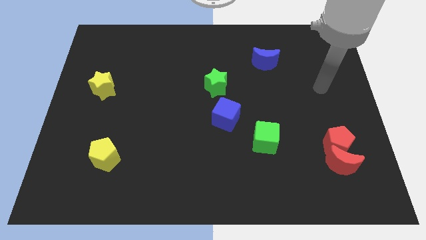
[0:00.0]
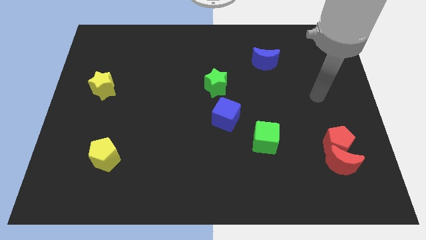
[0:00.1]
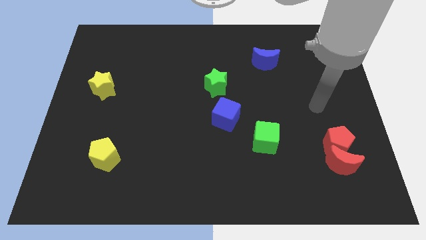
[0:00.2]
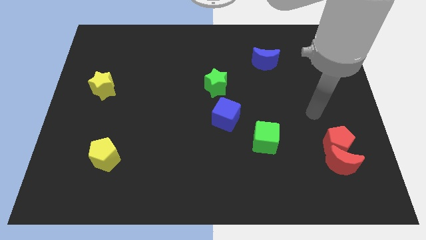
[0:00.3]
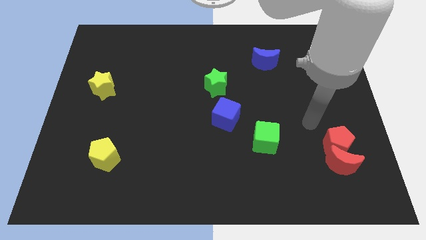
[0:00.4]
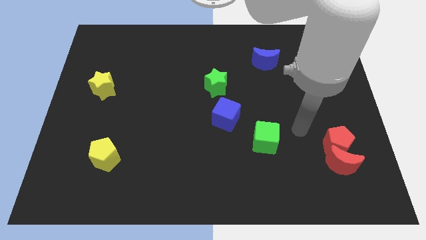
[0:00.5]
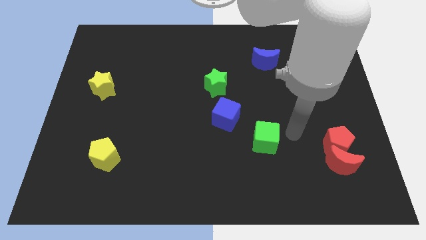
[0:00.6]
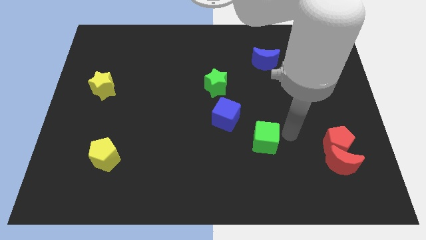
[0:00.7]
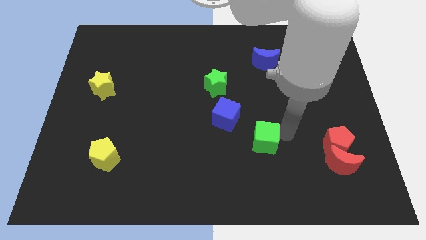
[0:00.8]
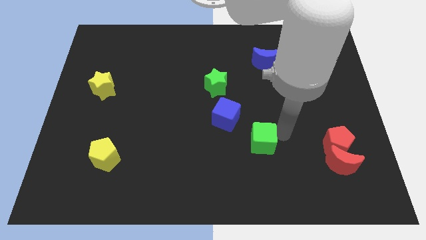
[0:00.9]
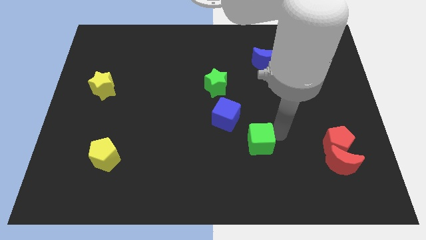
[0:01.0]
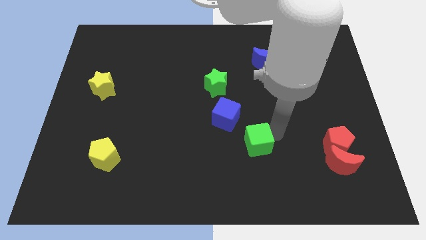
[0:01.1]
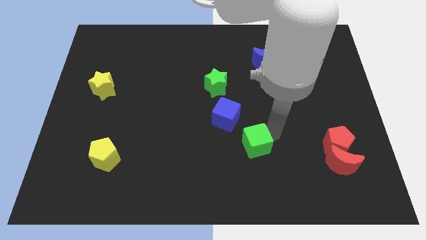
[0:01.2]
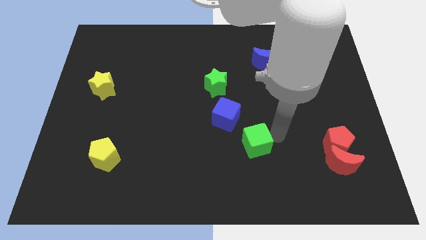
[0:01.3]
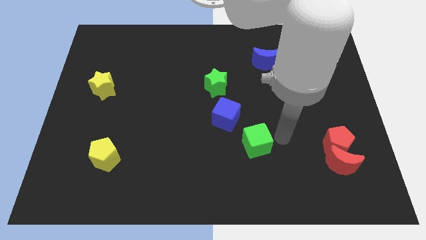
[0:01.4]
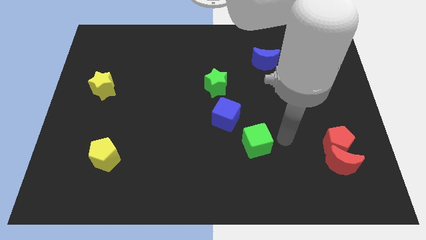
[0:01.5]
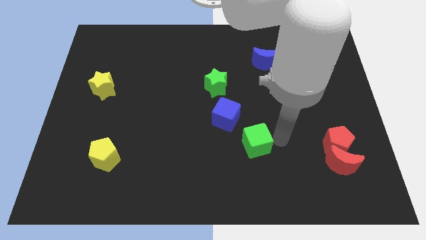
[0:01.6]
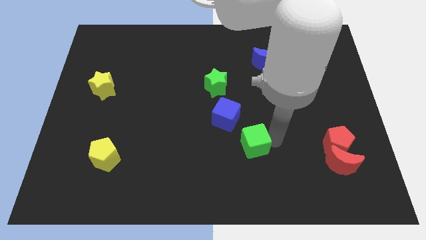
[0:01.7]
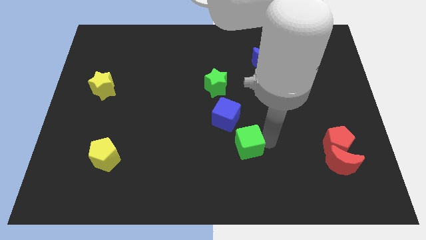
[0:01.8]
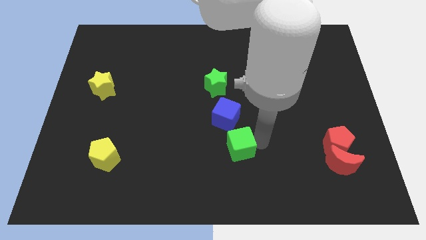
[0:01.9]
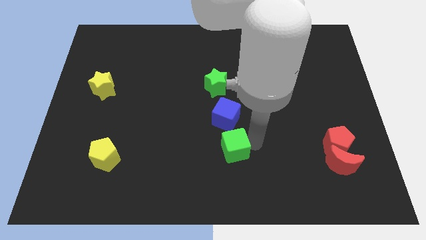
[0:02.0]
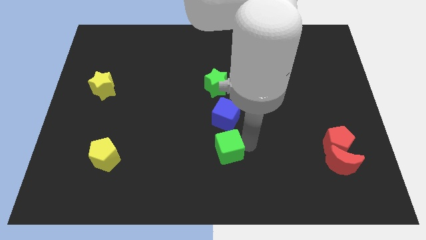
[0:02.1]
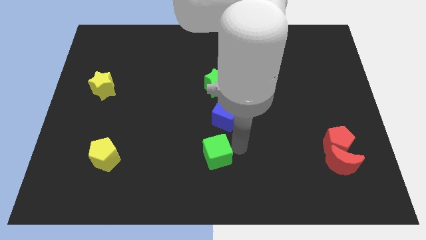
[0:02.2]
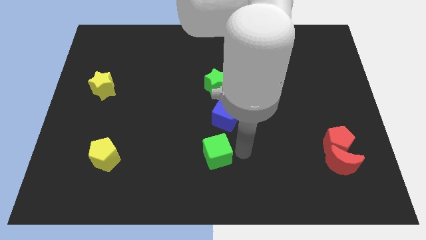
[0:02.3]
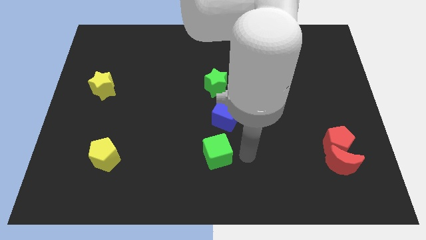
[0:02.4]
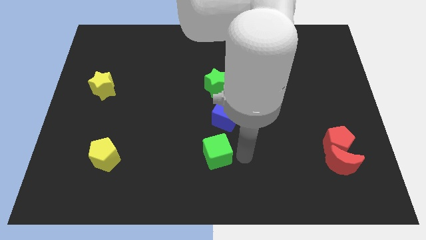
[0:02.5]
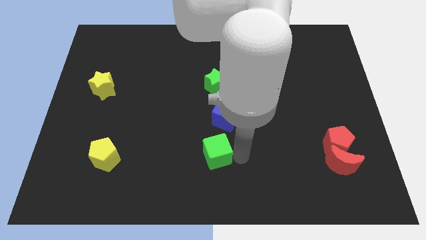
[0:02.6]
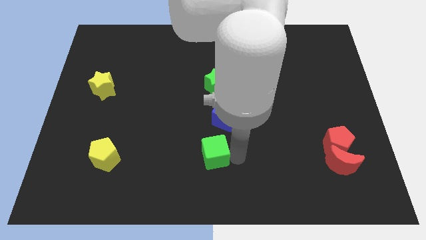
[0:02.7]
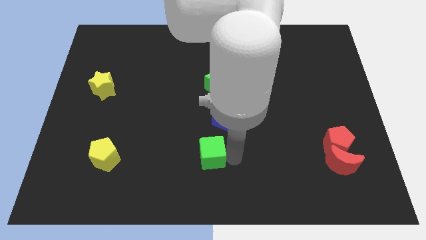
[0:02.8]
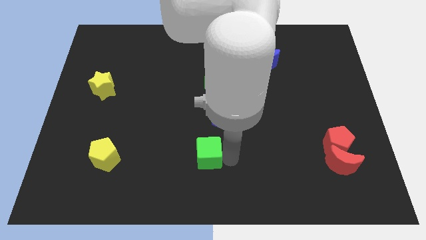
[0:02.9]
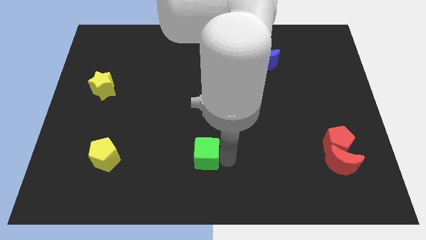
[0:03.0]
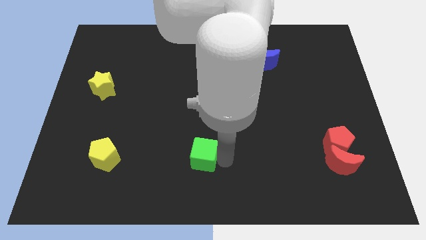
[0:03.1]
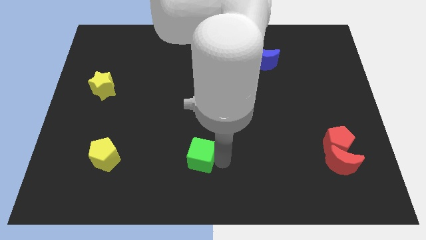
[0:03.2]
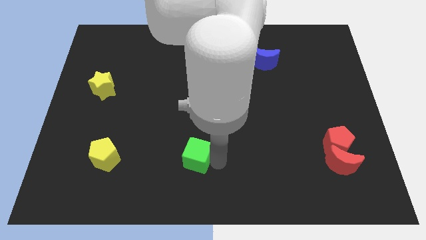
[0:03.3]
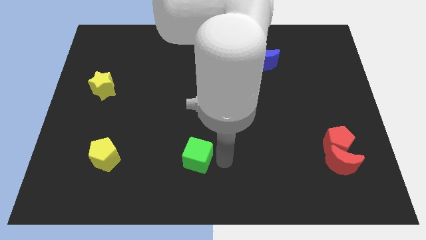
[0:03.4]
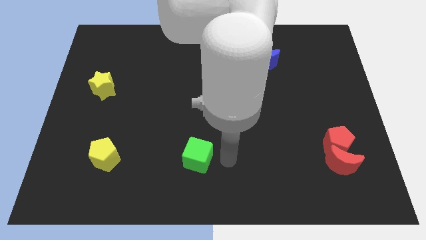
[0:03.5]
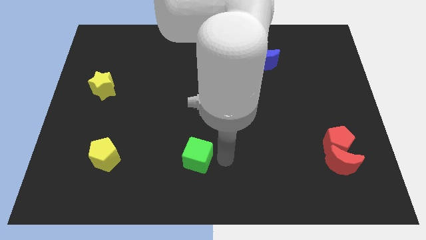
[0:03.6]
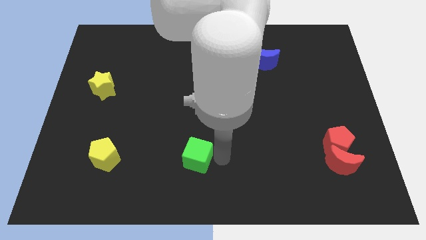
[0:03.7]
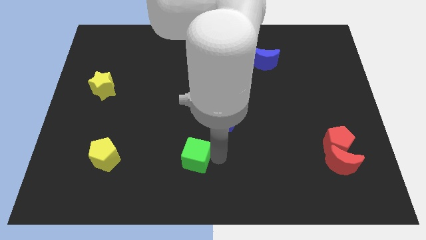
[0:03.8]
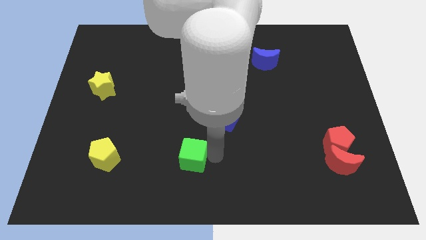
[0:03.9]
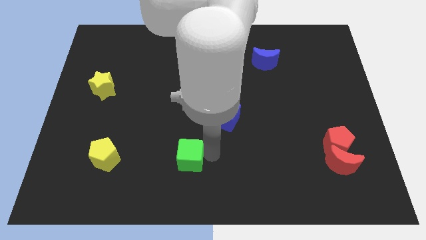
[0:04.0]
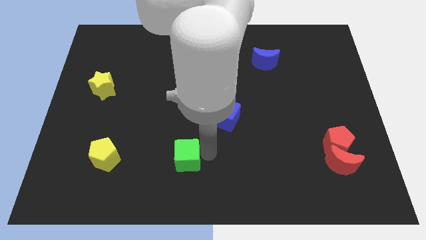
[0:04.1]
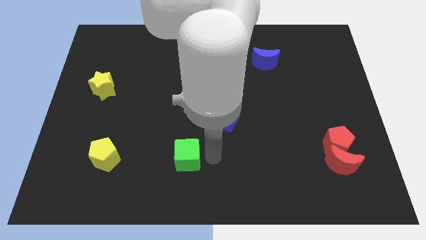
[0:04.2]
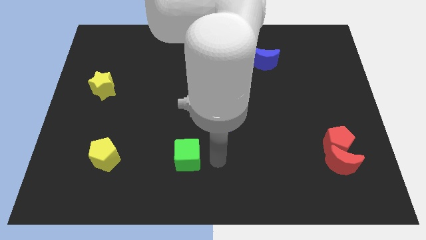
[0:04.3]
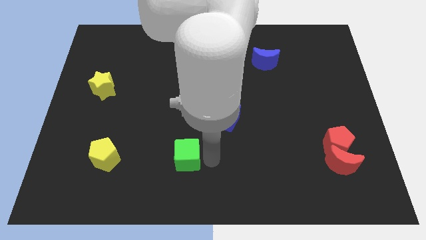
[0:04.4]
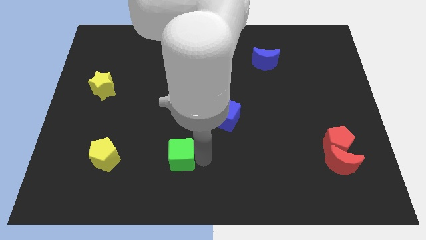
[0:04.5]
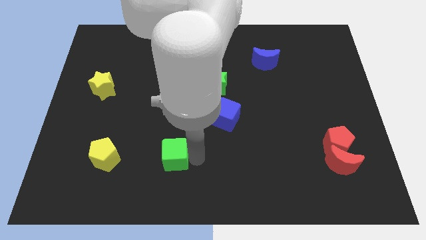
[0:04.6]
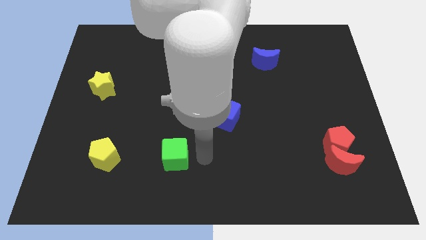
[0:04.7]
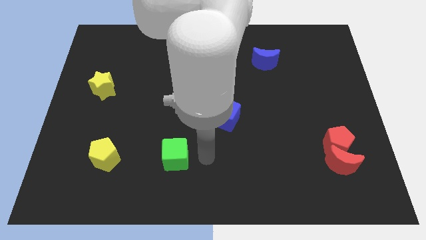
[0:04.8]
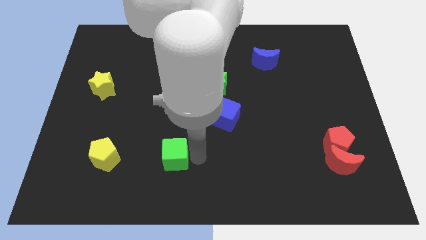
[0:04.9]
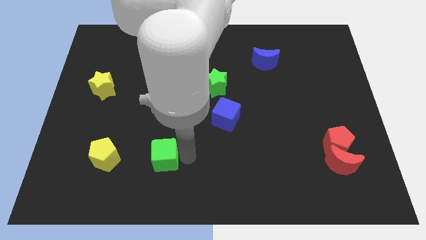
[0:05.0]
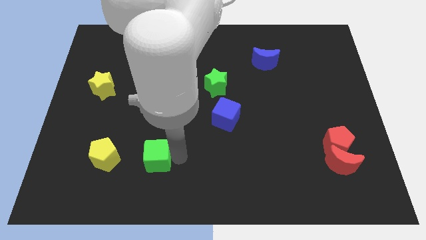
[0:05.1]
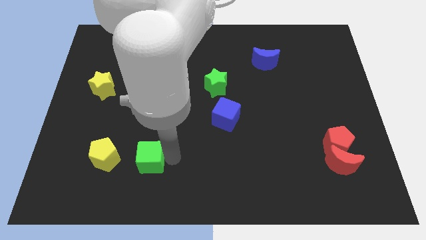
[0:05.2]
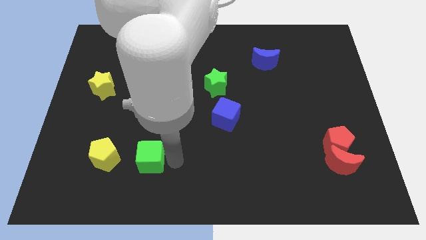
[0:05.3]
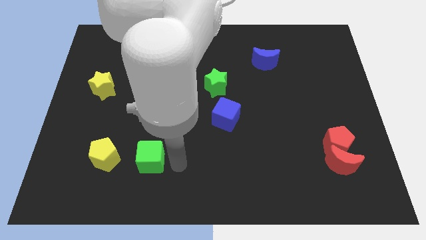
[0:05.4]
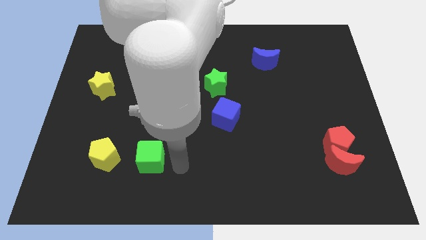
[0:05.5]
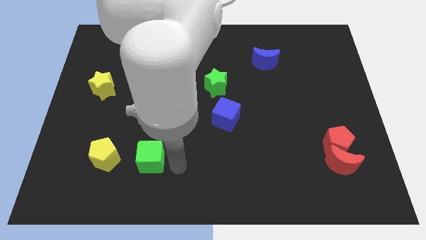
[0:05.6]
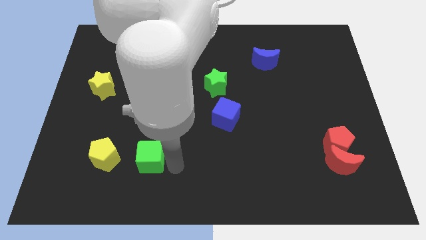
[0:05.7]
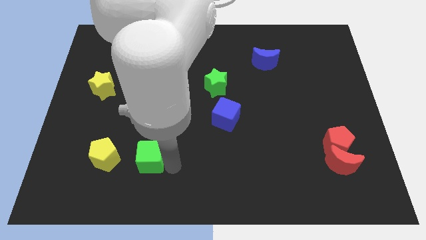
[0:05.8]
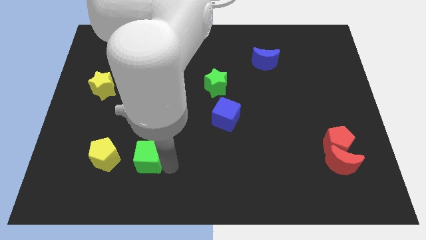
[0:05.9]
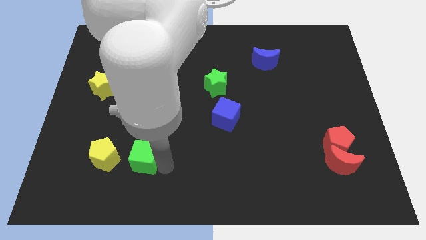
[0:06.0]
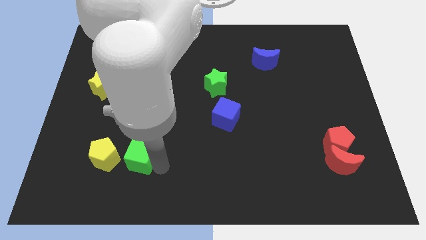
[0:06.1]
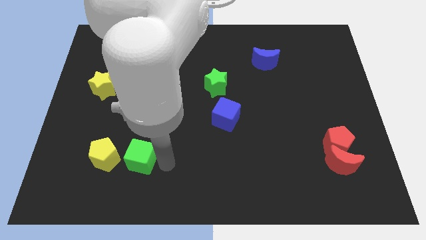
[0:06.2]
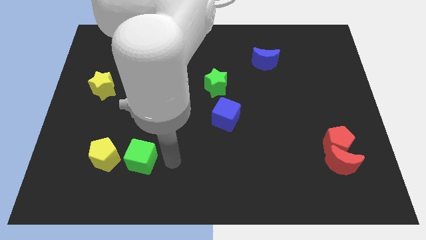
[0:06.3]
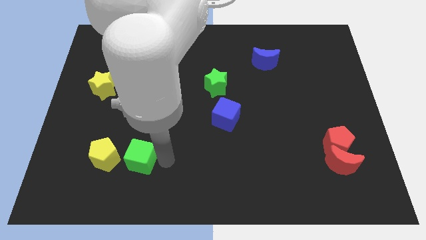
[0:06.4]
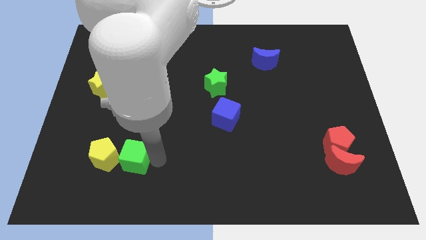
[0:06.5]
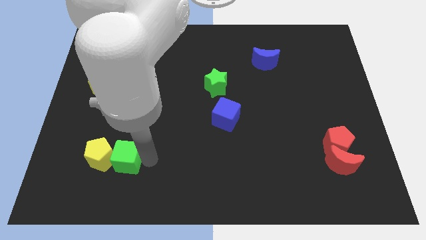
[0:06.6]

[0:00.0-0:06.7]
push the green cube next to the yellow pentagon
